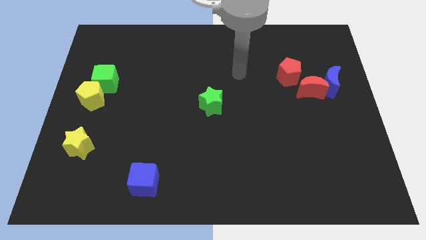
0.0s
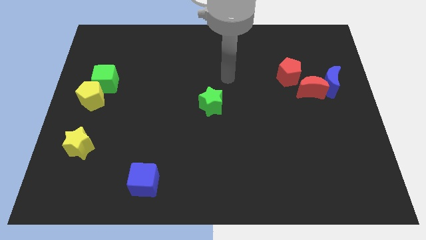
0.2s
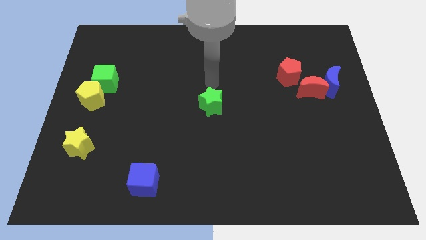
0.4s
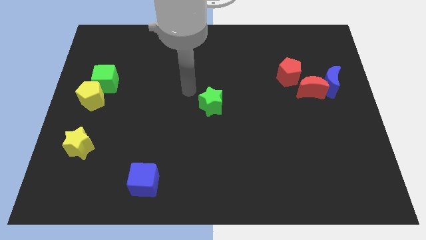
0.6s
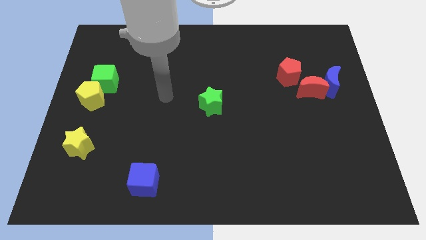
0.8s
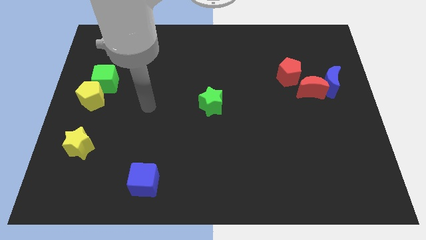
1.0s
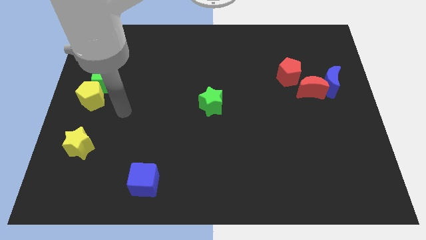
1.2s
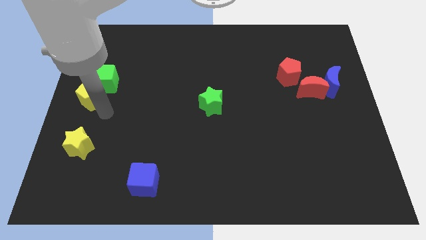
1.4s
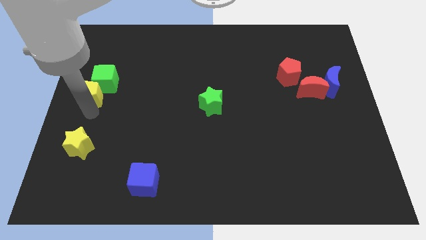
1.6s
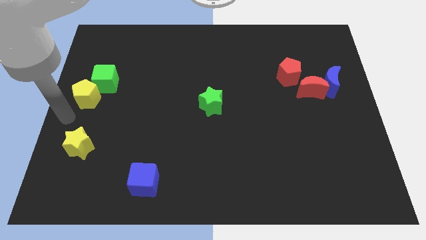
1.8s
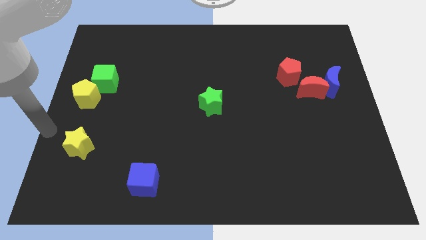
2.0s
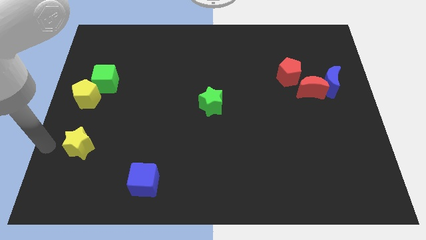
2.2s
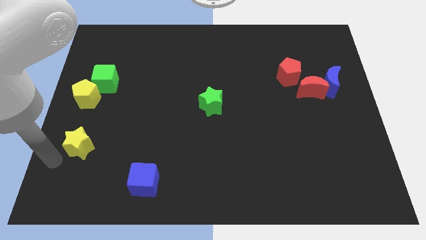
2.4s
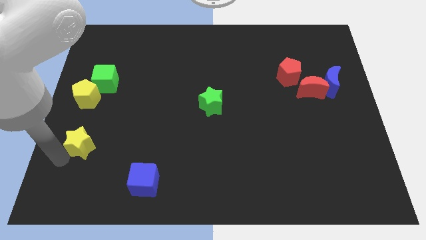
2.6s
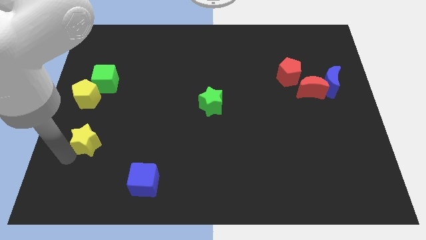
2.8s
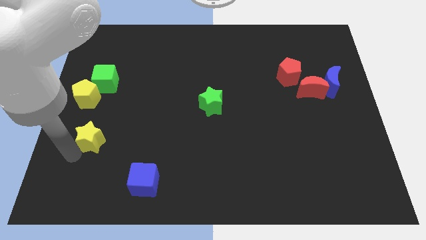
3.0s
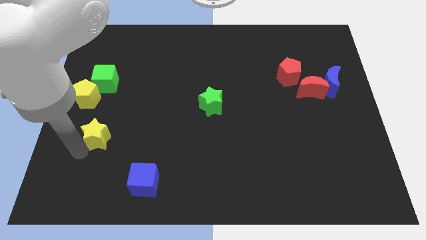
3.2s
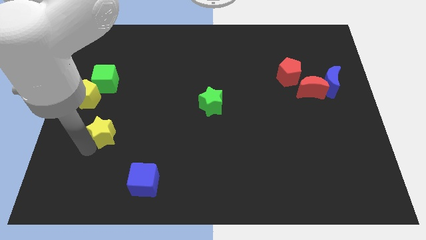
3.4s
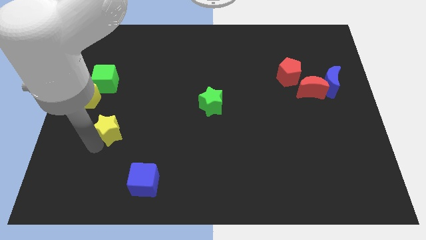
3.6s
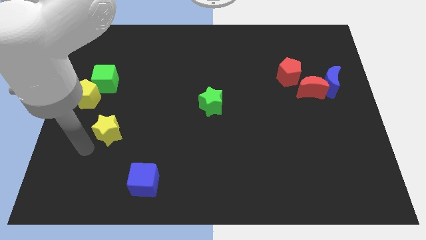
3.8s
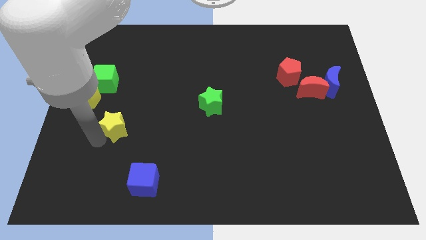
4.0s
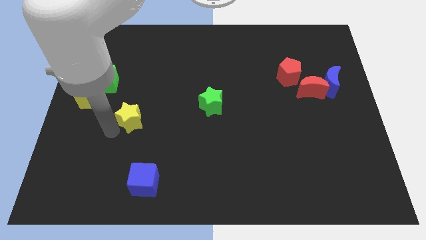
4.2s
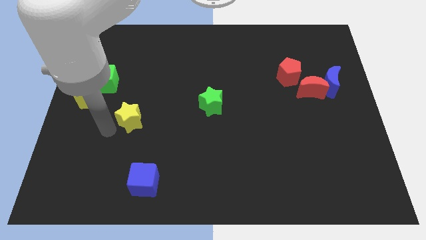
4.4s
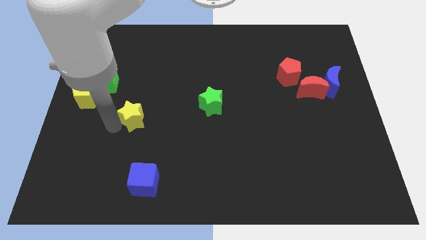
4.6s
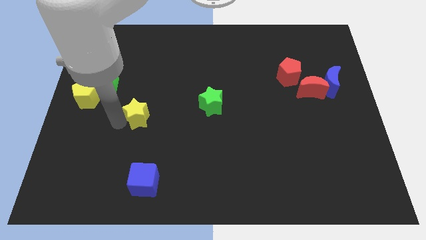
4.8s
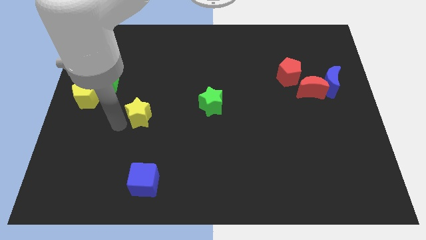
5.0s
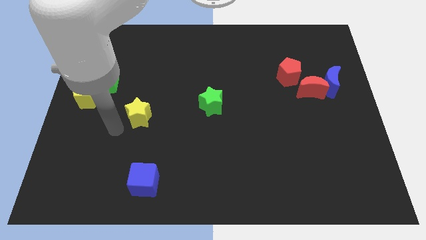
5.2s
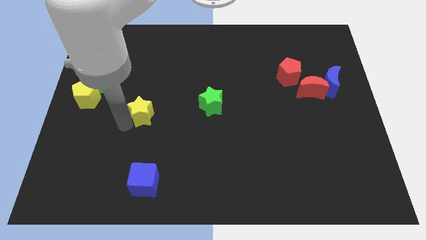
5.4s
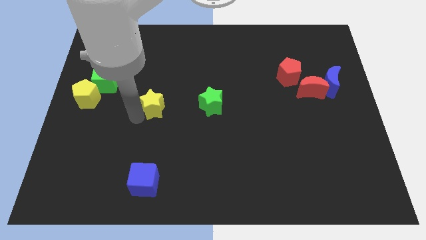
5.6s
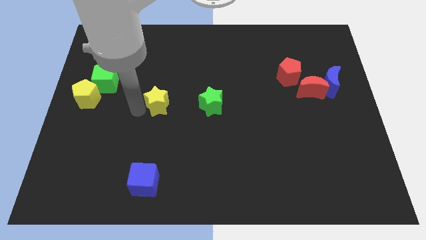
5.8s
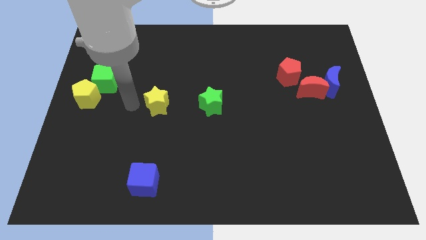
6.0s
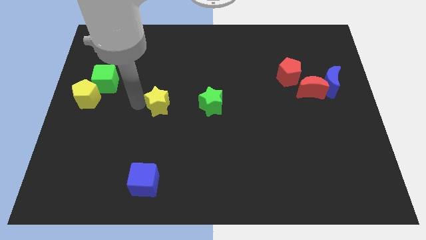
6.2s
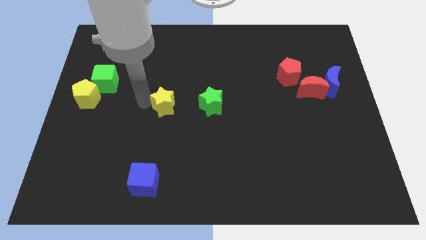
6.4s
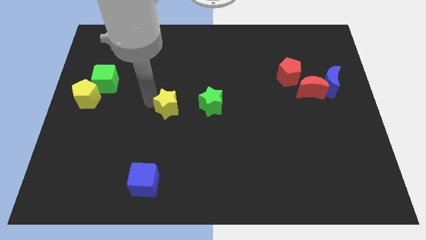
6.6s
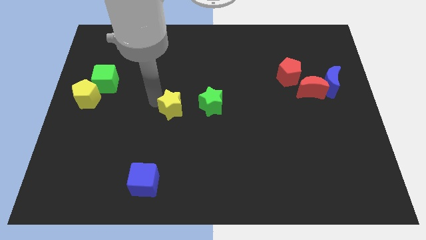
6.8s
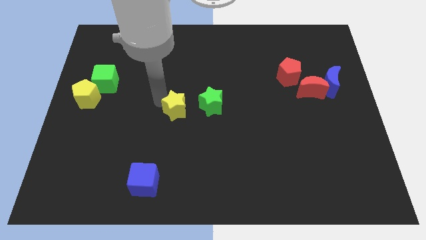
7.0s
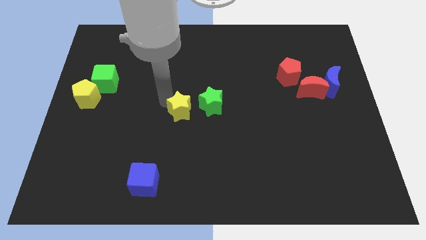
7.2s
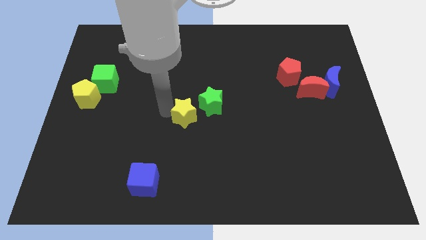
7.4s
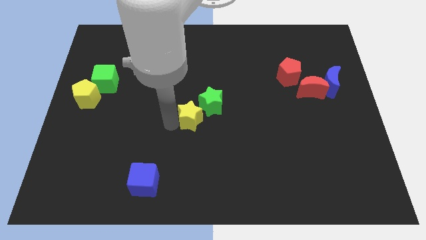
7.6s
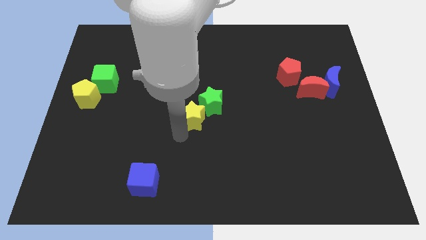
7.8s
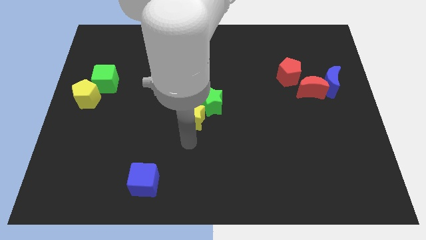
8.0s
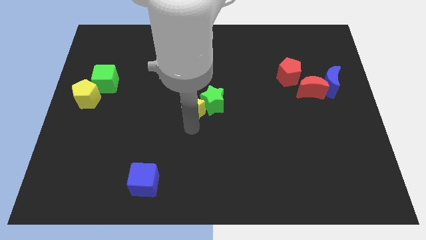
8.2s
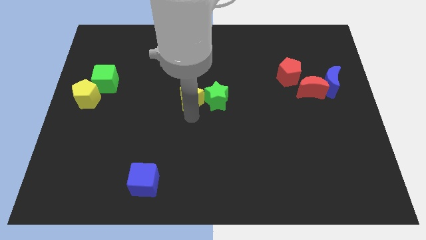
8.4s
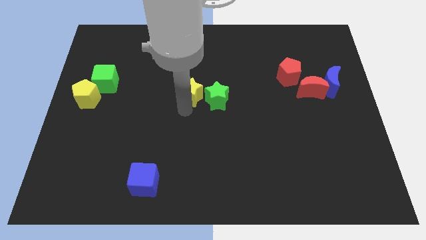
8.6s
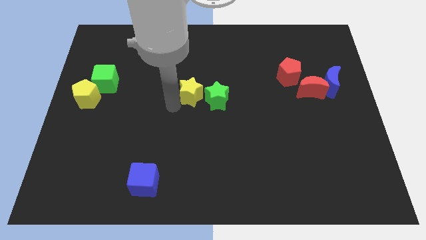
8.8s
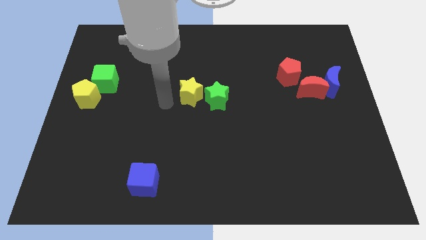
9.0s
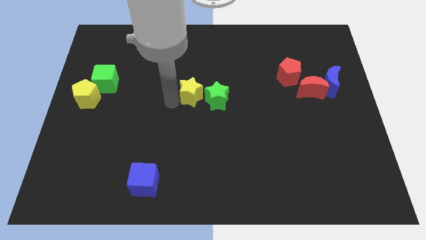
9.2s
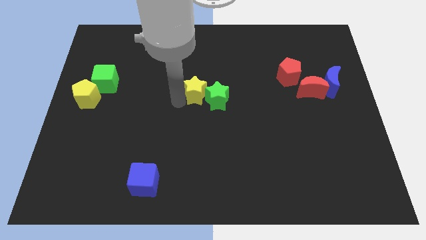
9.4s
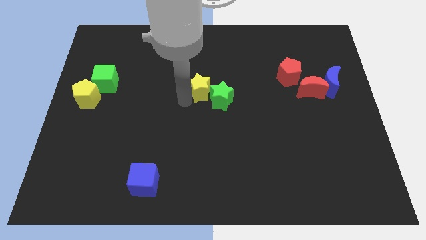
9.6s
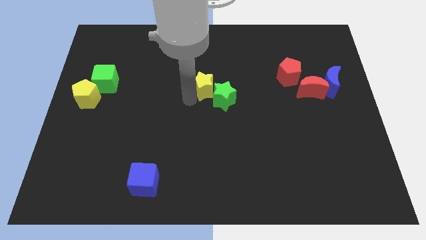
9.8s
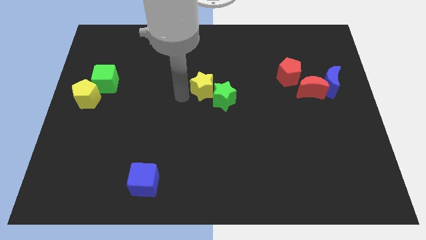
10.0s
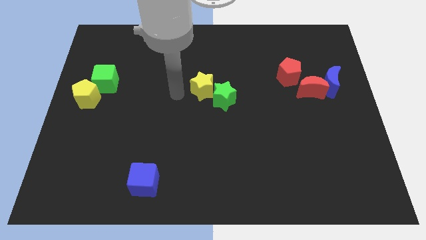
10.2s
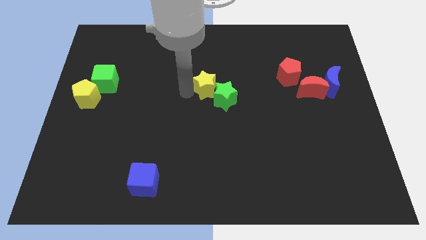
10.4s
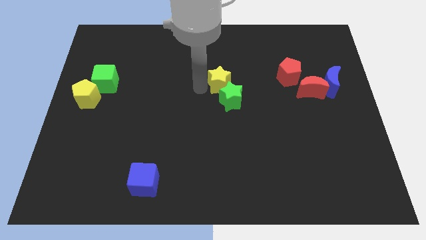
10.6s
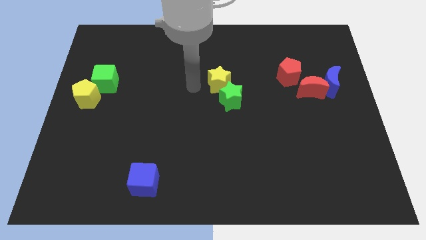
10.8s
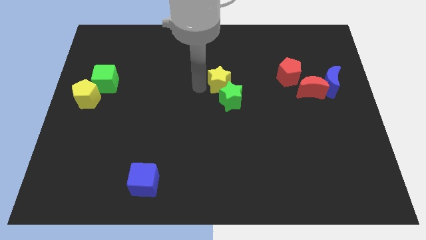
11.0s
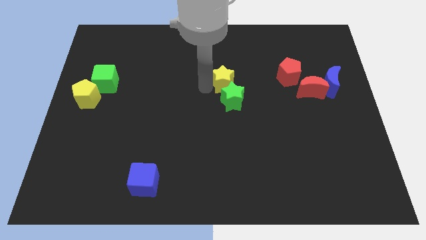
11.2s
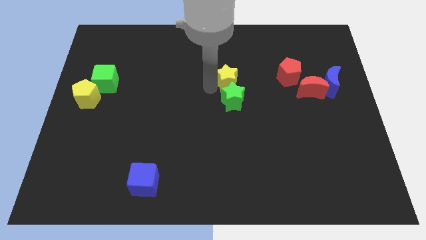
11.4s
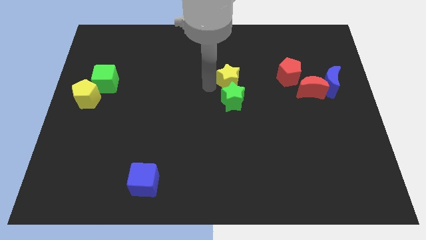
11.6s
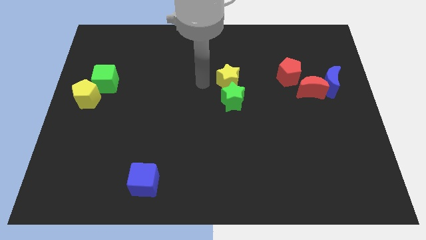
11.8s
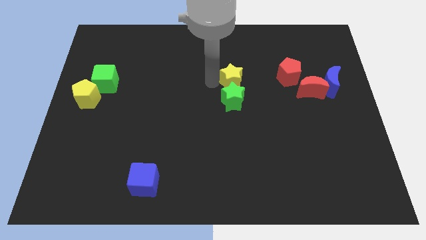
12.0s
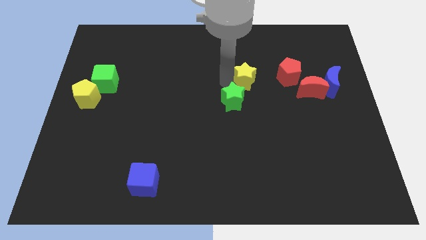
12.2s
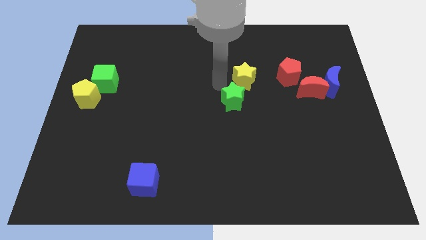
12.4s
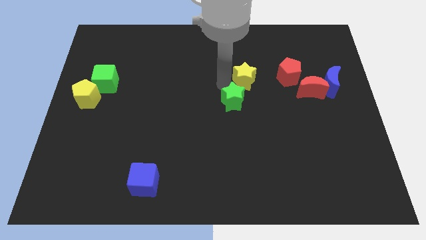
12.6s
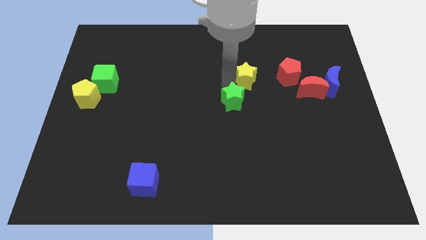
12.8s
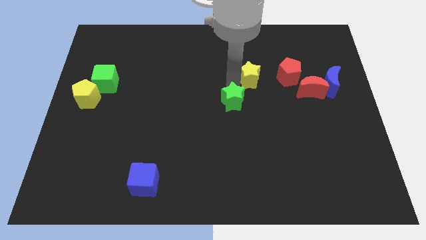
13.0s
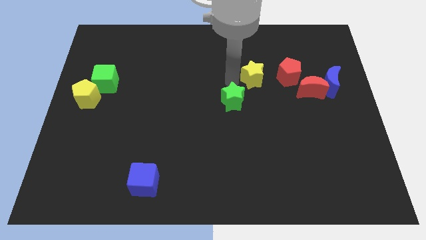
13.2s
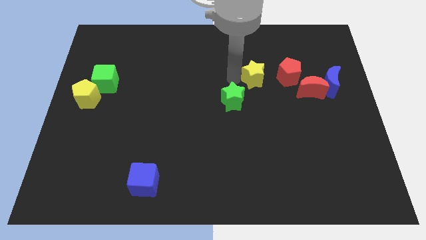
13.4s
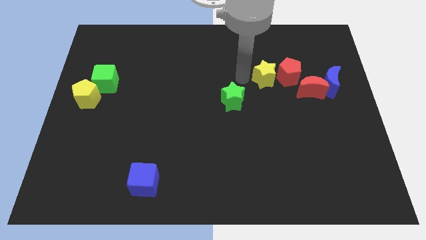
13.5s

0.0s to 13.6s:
push the yellow star next to the red pentagon
